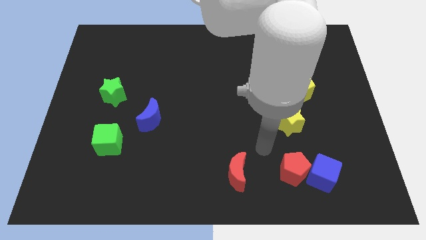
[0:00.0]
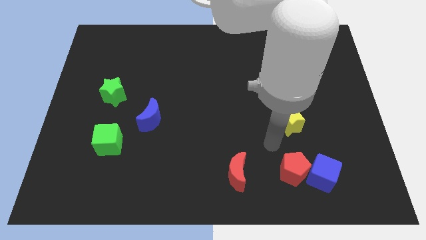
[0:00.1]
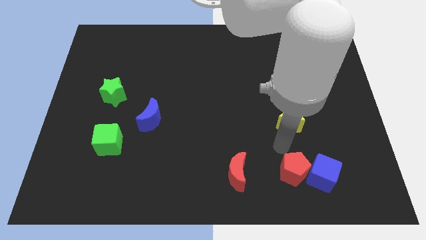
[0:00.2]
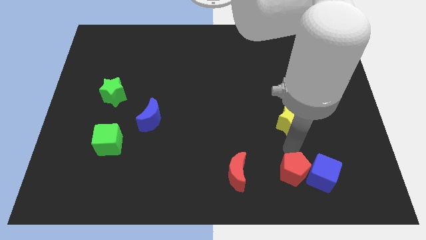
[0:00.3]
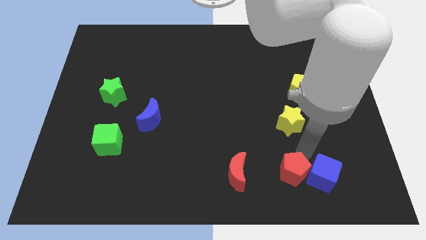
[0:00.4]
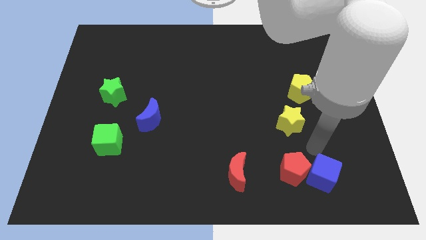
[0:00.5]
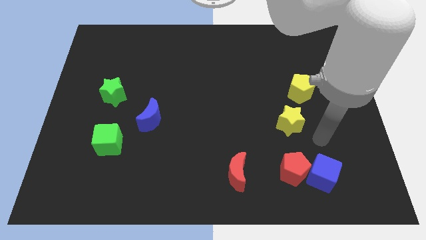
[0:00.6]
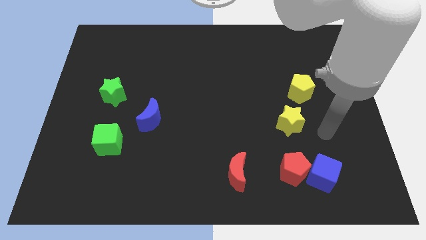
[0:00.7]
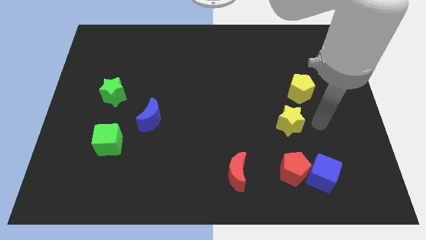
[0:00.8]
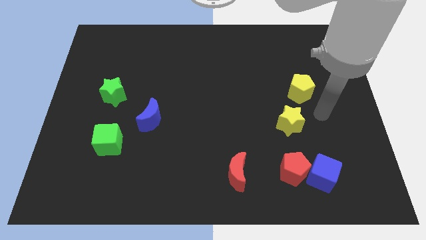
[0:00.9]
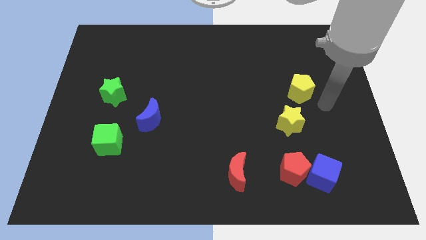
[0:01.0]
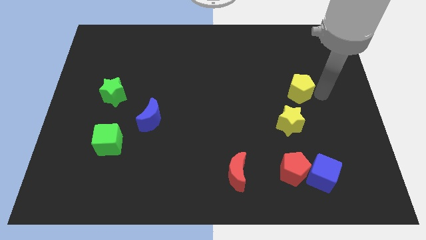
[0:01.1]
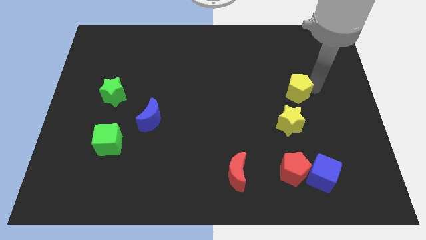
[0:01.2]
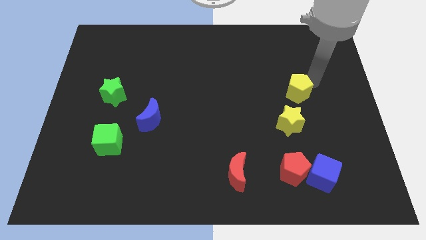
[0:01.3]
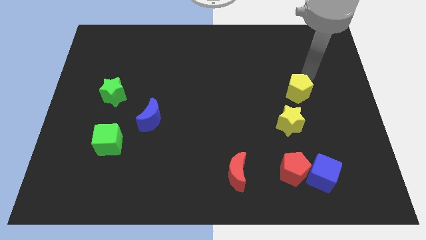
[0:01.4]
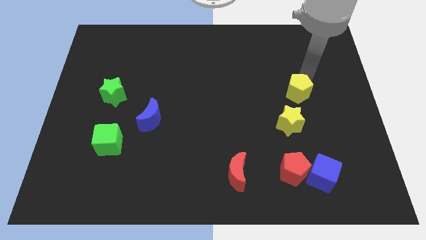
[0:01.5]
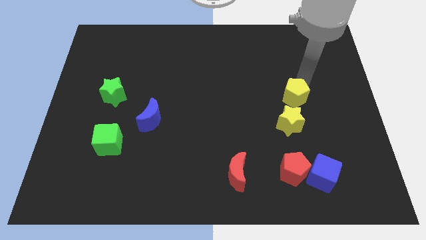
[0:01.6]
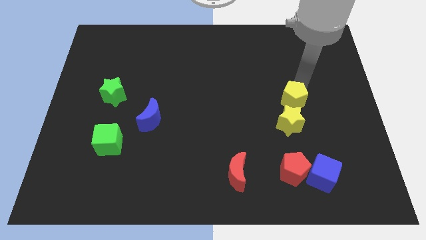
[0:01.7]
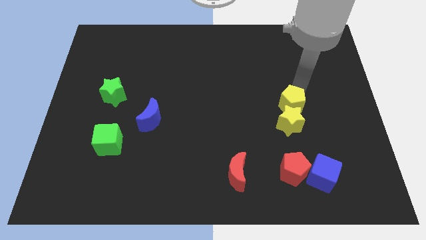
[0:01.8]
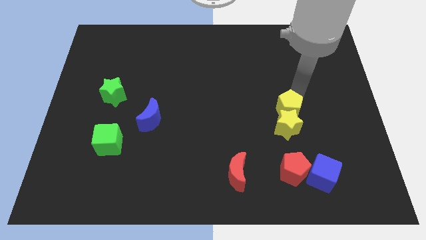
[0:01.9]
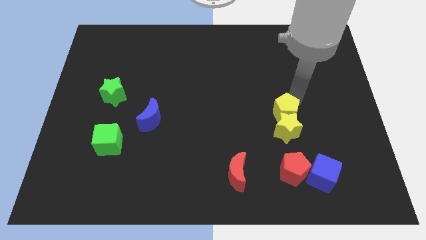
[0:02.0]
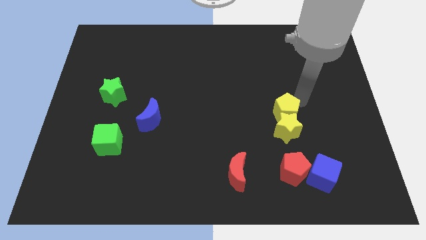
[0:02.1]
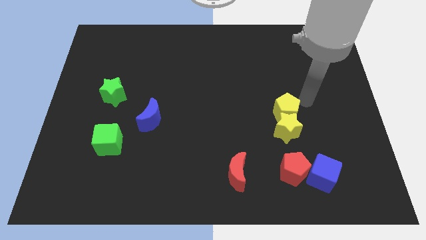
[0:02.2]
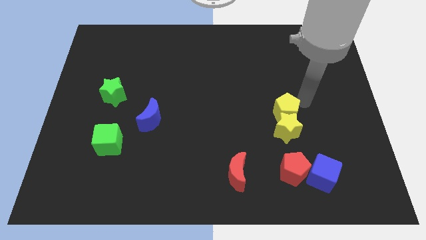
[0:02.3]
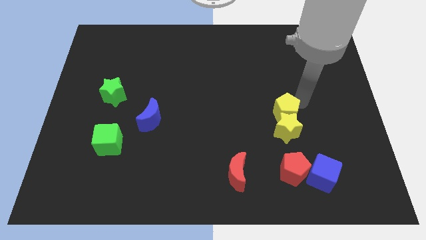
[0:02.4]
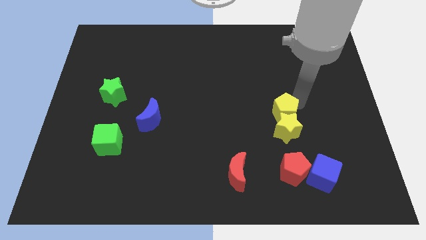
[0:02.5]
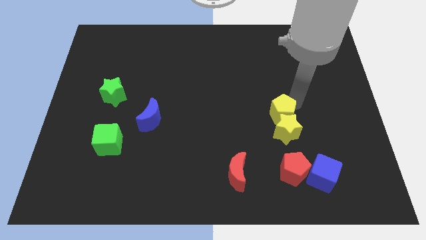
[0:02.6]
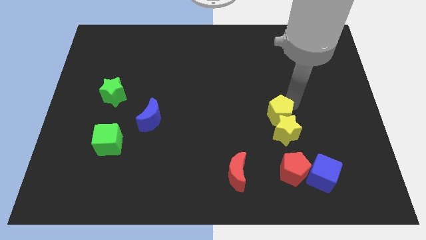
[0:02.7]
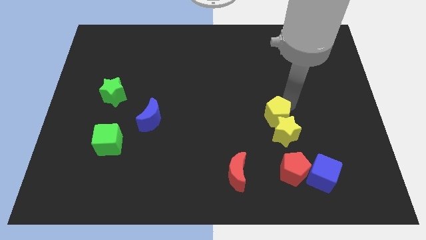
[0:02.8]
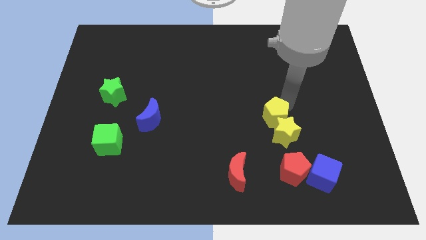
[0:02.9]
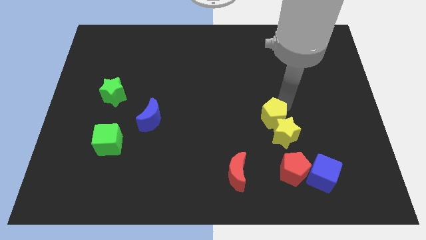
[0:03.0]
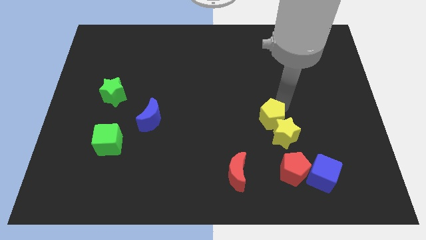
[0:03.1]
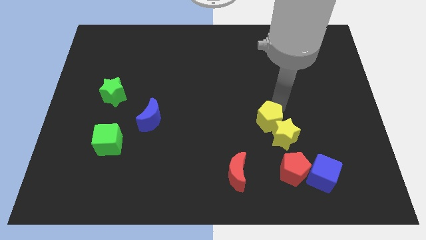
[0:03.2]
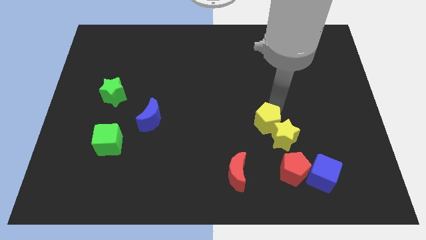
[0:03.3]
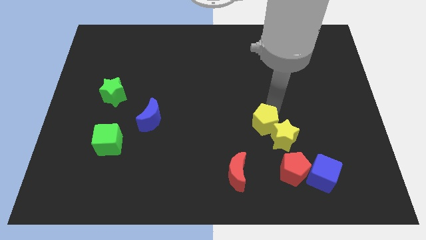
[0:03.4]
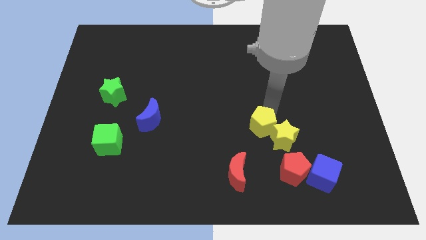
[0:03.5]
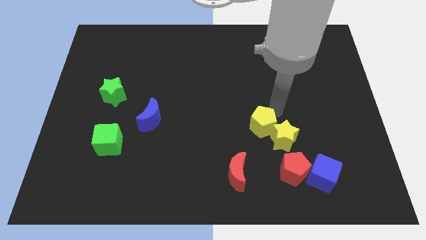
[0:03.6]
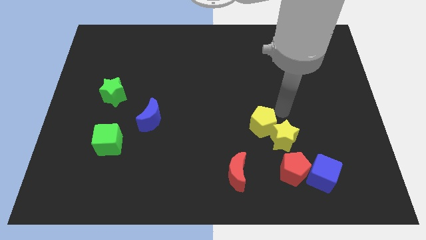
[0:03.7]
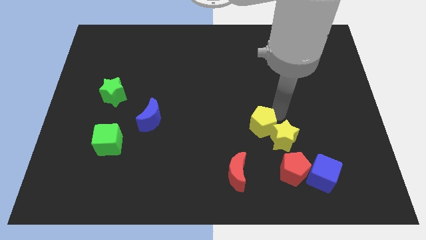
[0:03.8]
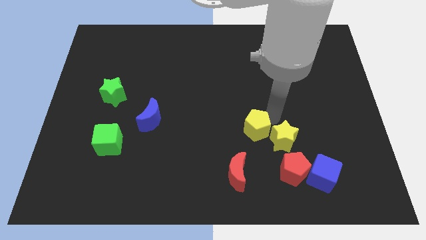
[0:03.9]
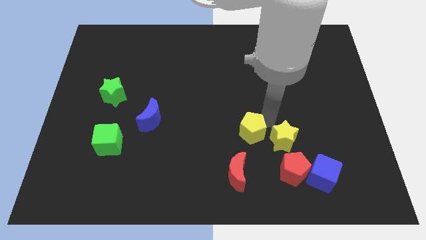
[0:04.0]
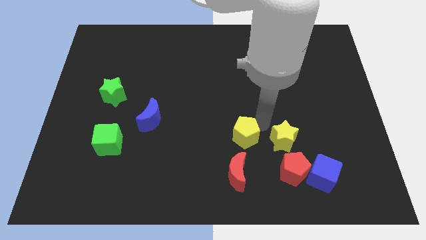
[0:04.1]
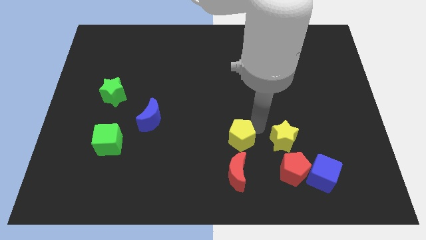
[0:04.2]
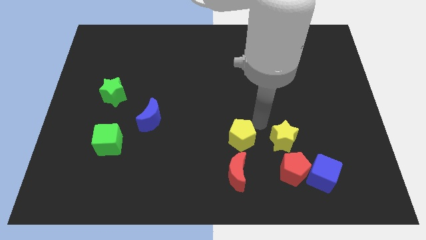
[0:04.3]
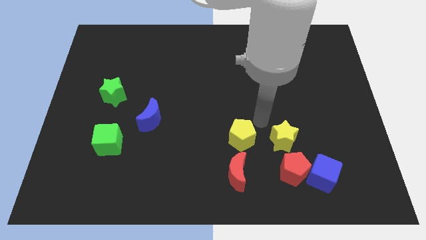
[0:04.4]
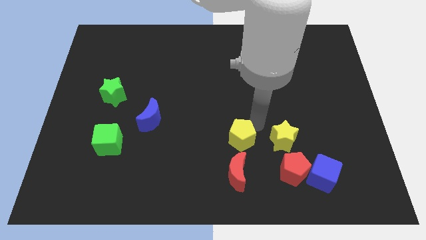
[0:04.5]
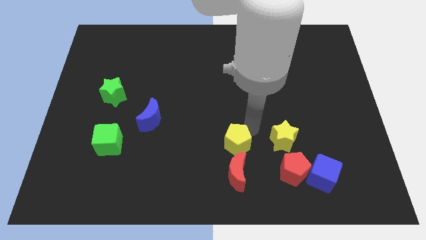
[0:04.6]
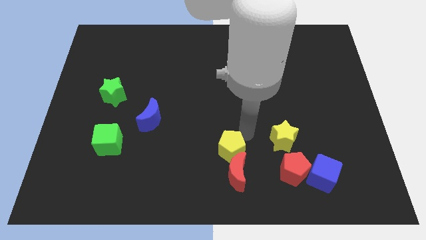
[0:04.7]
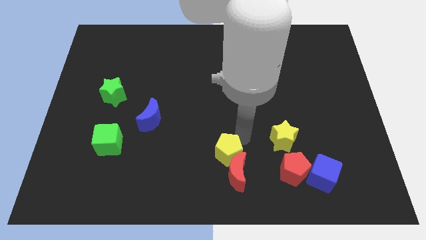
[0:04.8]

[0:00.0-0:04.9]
move the yellow pentagon to the left side of the red pentagon

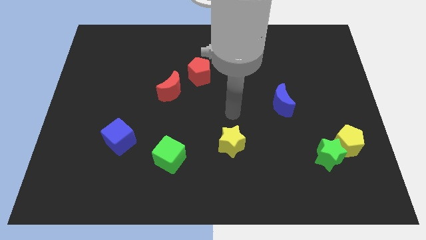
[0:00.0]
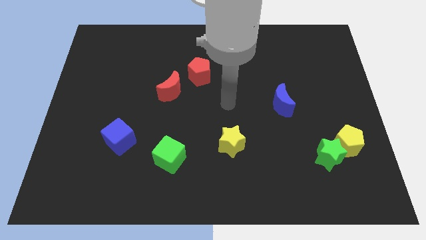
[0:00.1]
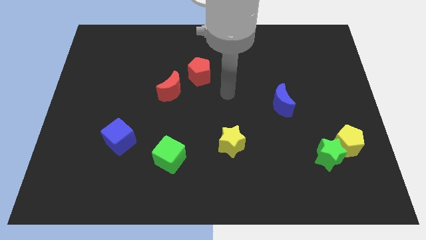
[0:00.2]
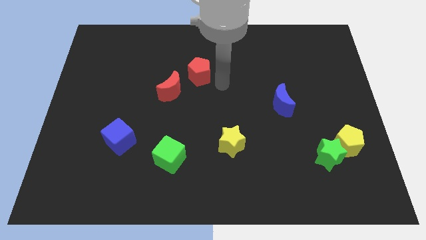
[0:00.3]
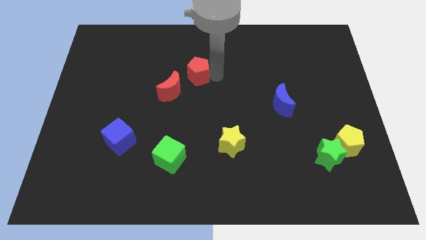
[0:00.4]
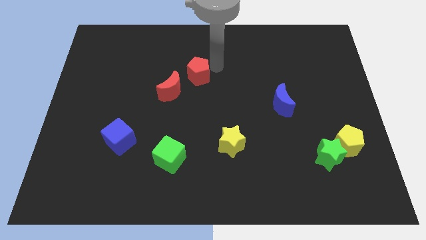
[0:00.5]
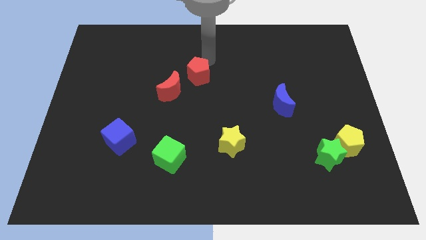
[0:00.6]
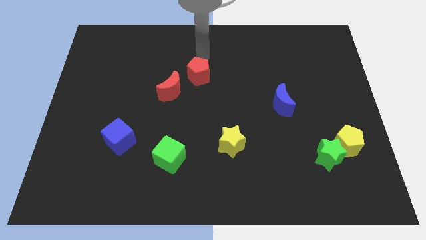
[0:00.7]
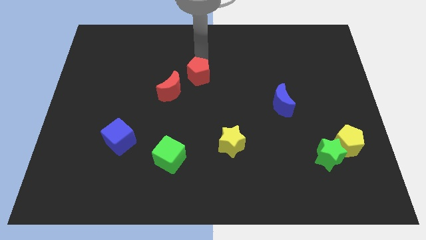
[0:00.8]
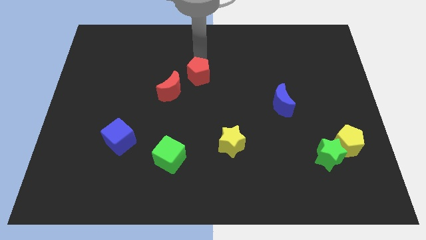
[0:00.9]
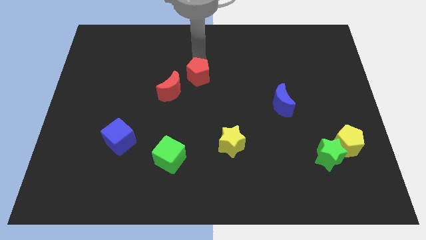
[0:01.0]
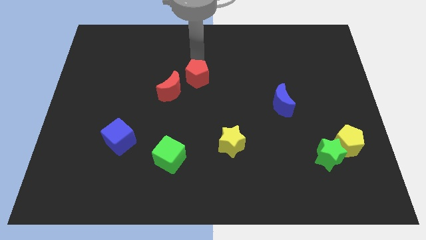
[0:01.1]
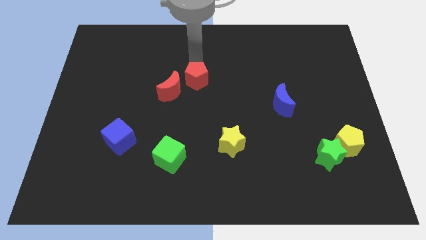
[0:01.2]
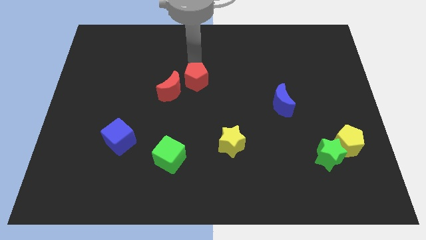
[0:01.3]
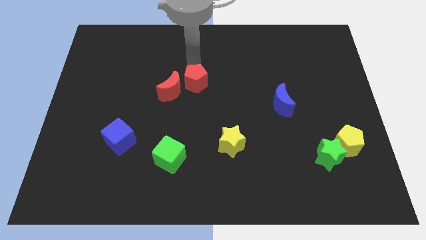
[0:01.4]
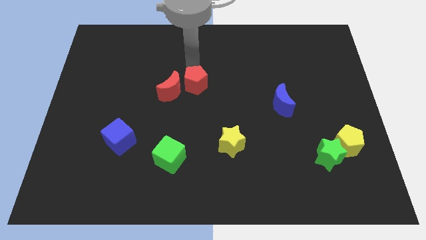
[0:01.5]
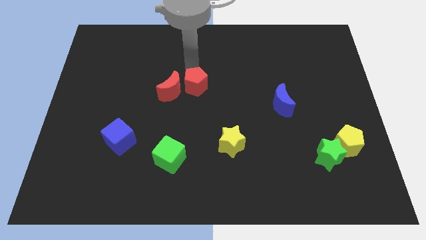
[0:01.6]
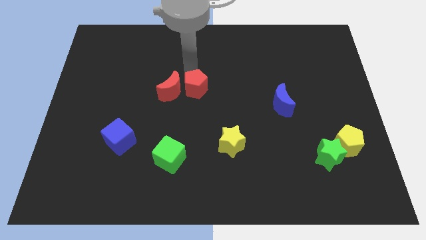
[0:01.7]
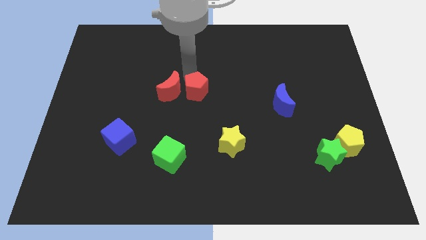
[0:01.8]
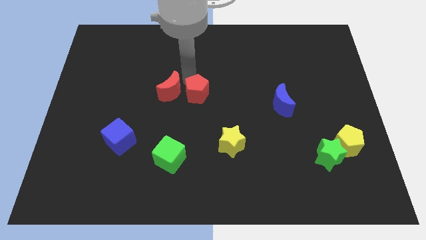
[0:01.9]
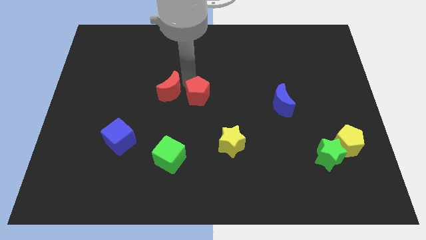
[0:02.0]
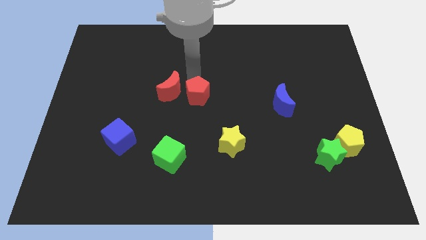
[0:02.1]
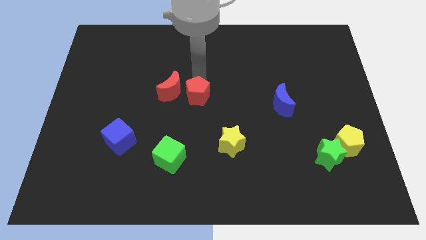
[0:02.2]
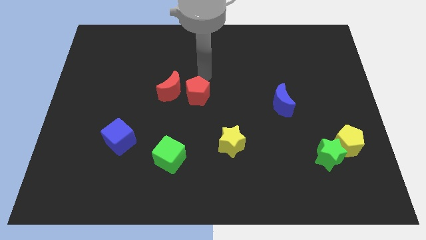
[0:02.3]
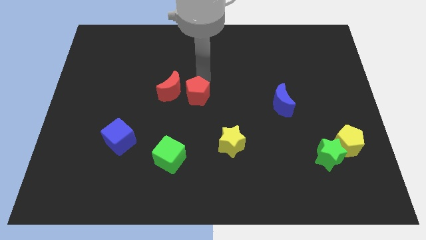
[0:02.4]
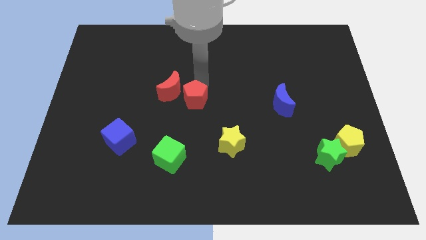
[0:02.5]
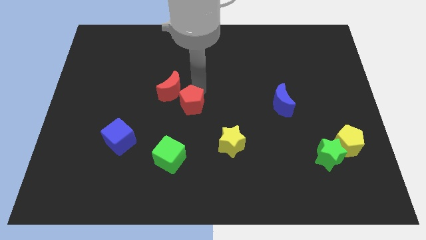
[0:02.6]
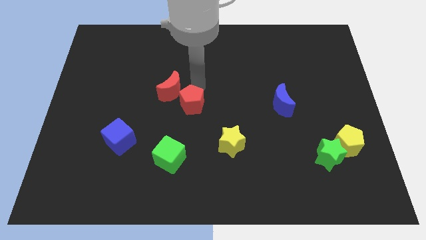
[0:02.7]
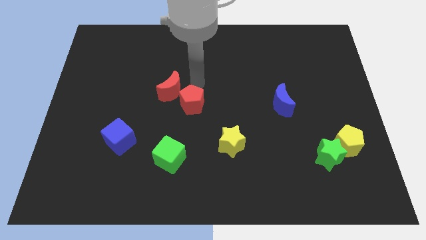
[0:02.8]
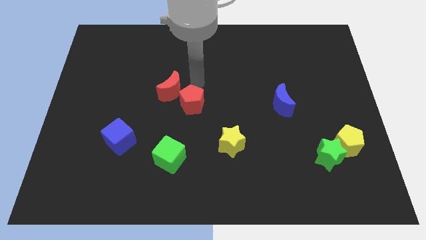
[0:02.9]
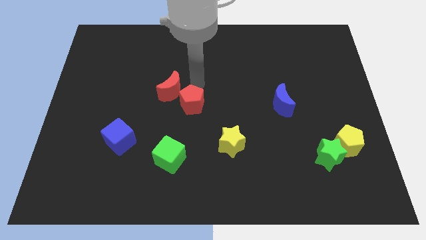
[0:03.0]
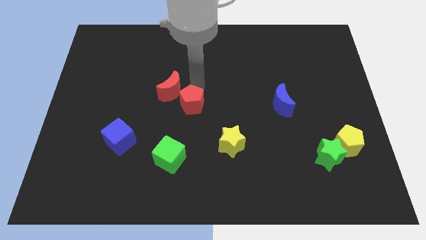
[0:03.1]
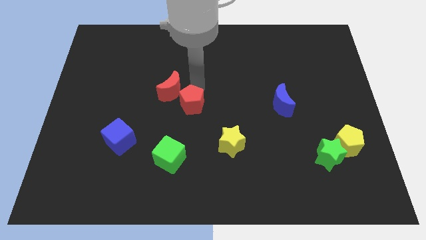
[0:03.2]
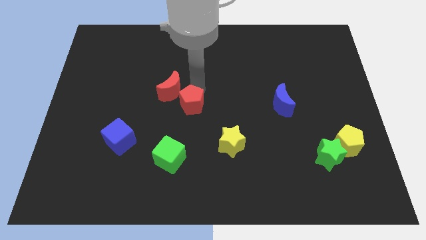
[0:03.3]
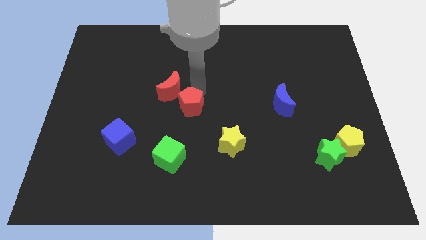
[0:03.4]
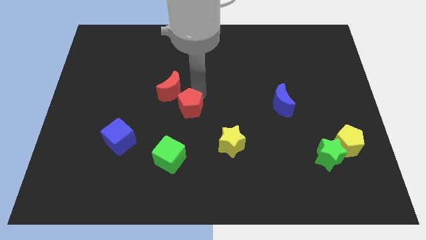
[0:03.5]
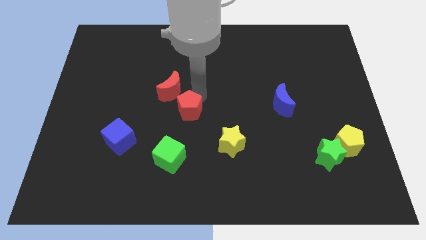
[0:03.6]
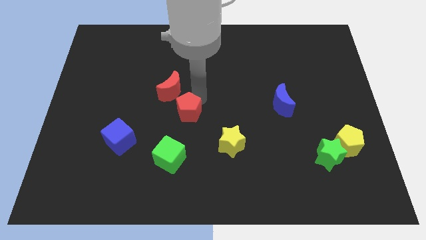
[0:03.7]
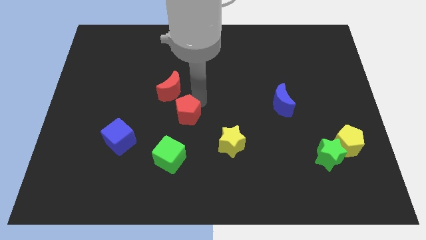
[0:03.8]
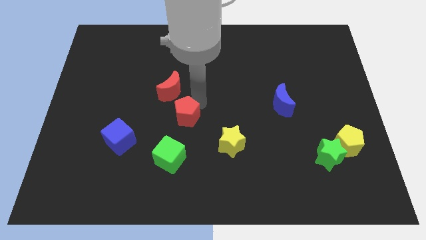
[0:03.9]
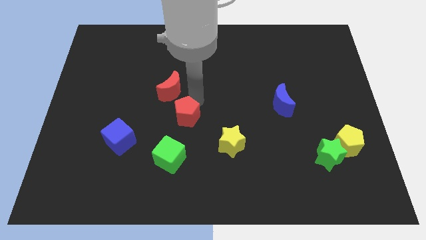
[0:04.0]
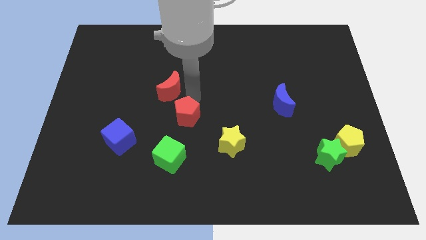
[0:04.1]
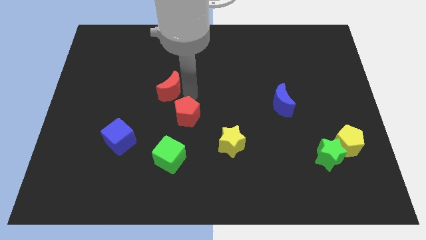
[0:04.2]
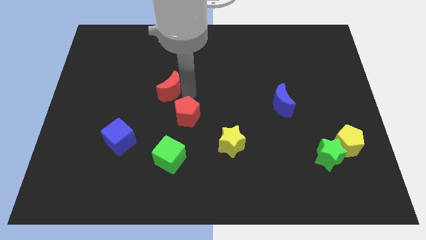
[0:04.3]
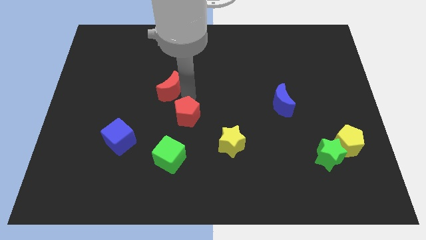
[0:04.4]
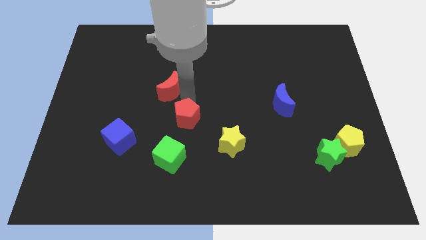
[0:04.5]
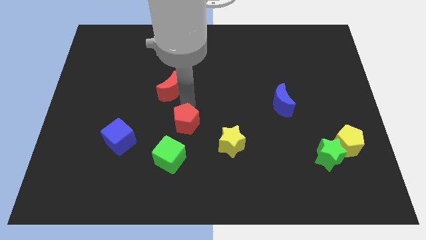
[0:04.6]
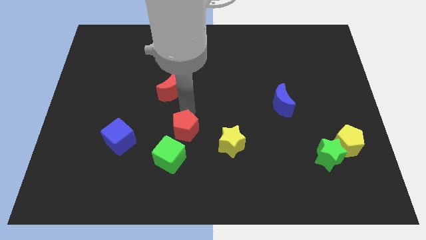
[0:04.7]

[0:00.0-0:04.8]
put the red pentagon to the left of the yellow star
